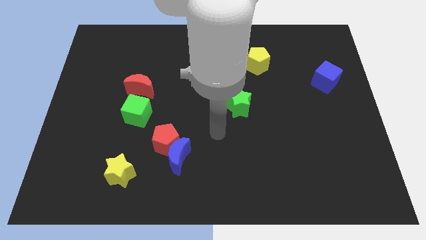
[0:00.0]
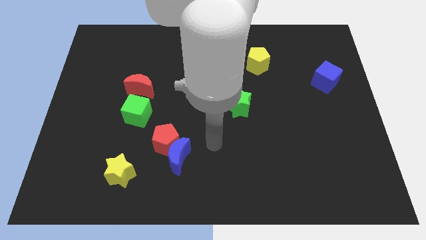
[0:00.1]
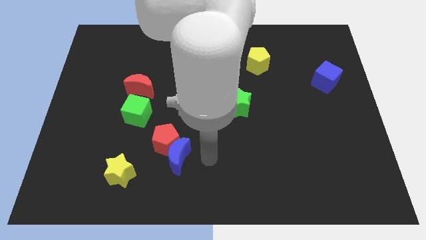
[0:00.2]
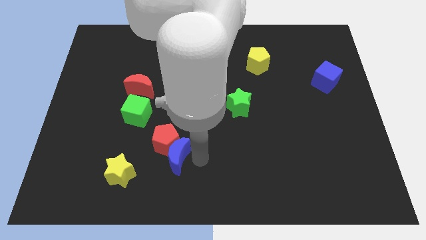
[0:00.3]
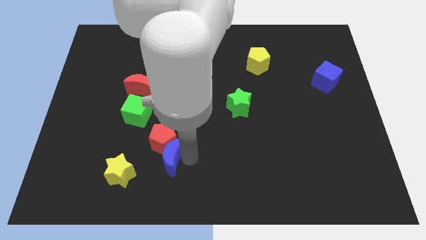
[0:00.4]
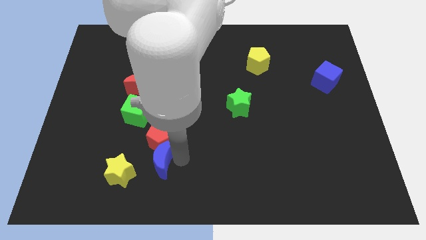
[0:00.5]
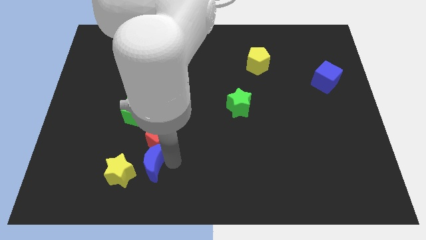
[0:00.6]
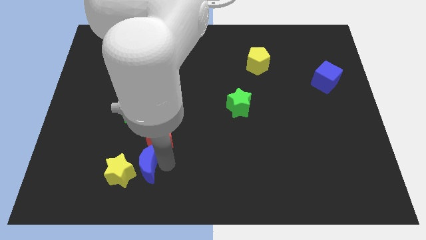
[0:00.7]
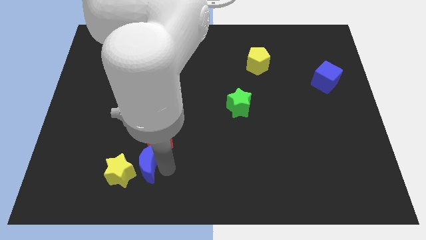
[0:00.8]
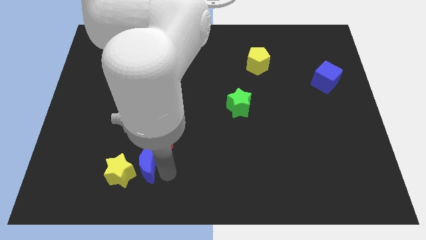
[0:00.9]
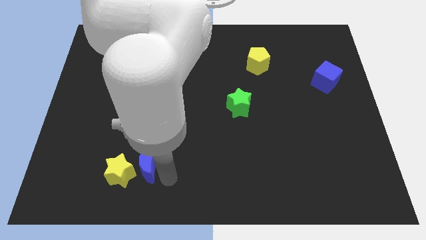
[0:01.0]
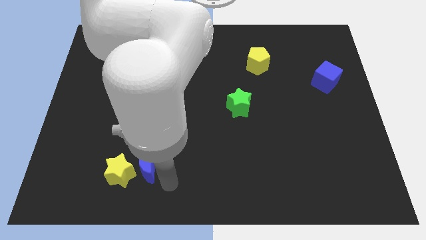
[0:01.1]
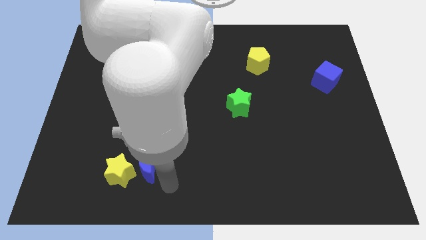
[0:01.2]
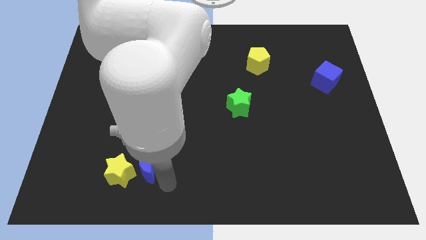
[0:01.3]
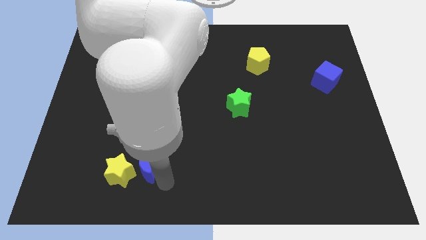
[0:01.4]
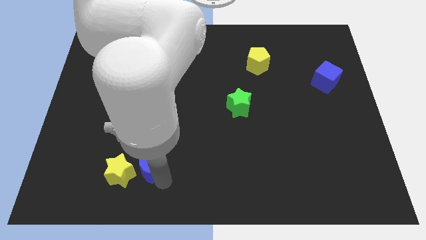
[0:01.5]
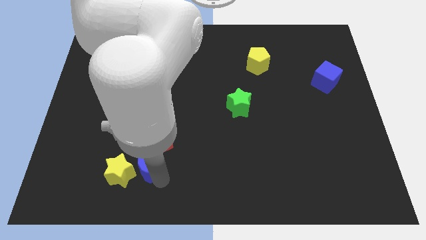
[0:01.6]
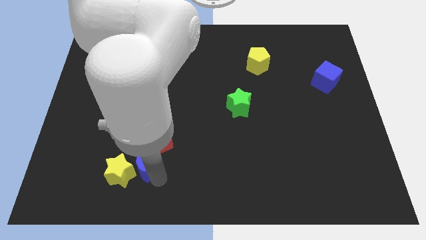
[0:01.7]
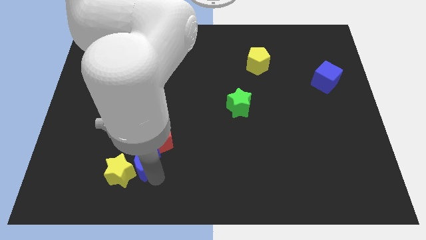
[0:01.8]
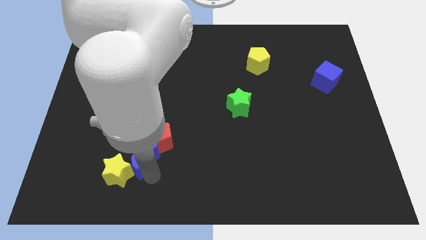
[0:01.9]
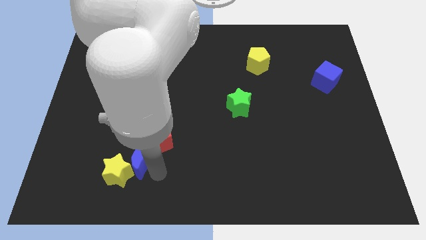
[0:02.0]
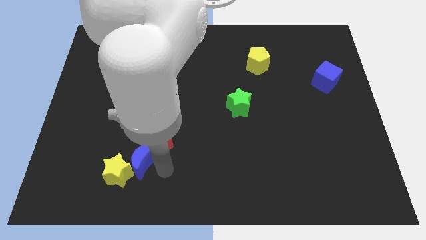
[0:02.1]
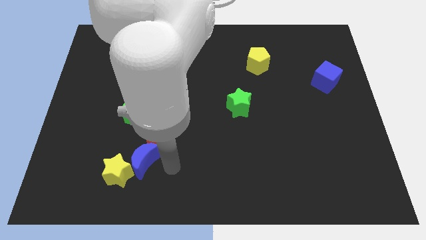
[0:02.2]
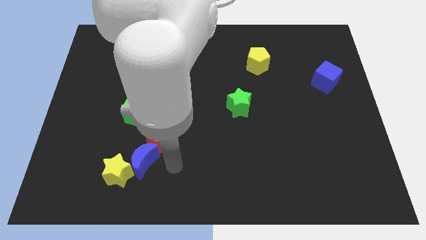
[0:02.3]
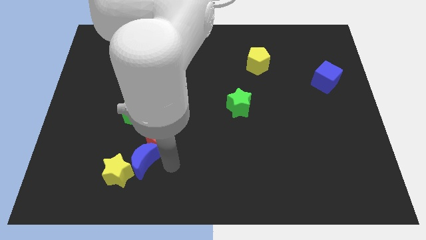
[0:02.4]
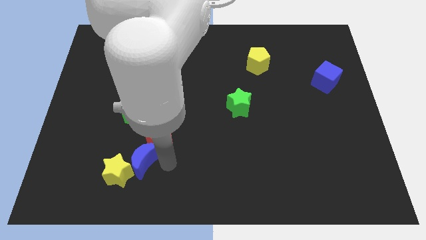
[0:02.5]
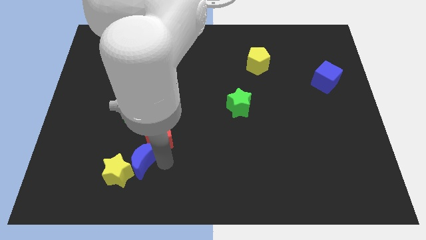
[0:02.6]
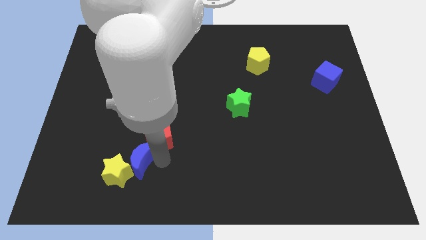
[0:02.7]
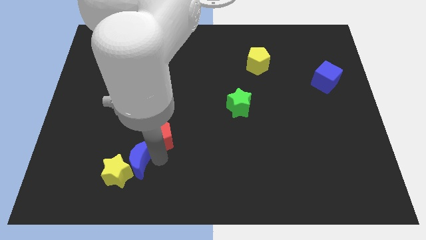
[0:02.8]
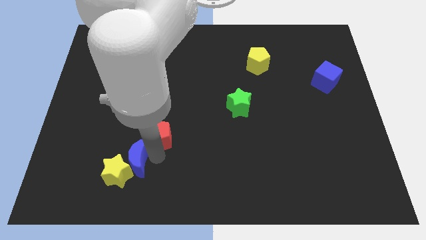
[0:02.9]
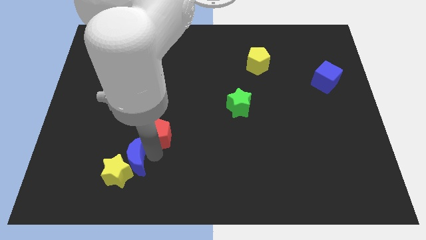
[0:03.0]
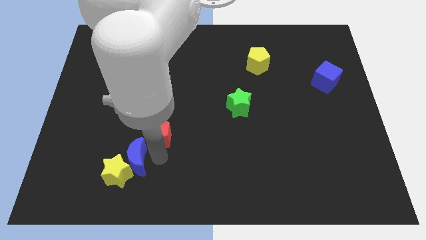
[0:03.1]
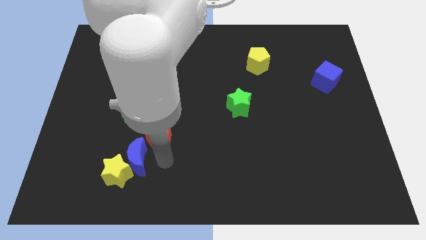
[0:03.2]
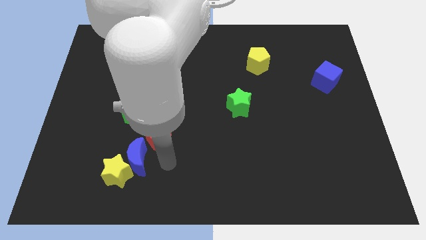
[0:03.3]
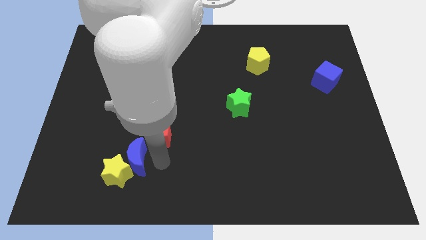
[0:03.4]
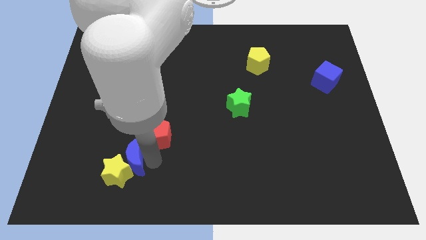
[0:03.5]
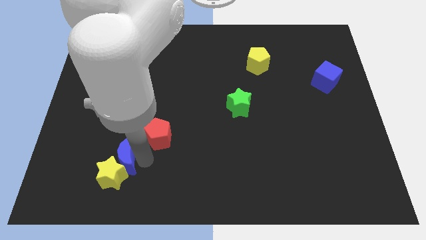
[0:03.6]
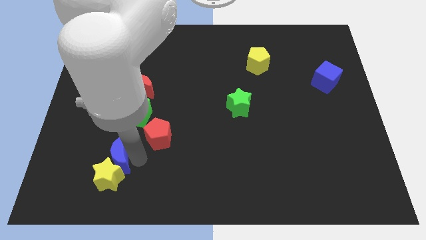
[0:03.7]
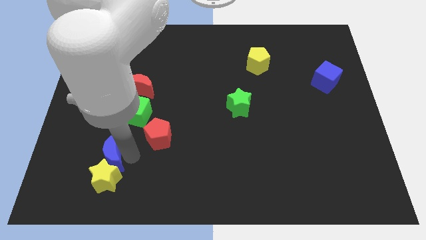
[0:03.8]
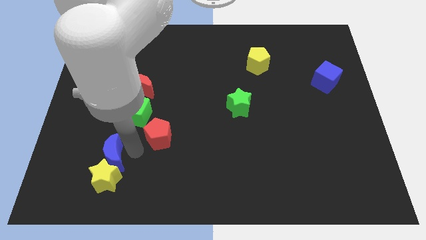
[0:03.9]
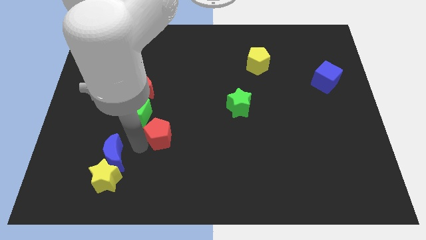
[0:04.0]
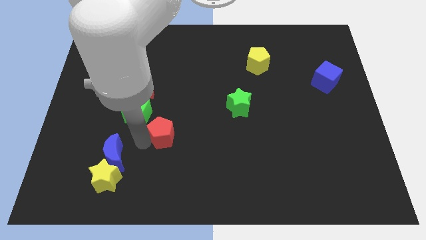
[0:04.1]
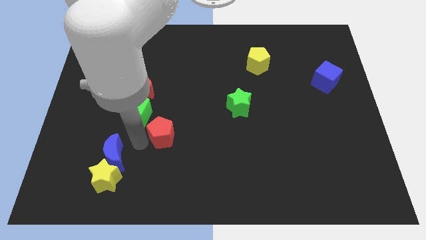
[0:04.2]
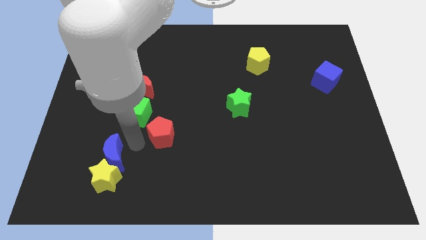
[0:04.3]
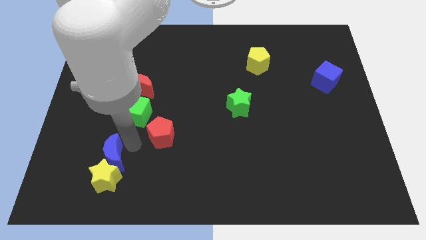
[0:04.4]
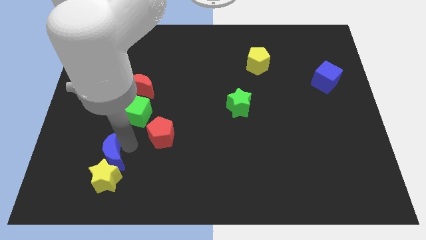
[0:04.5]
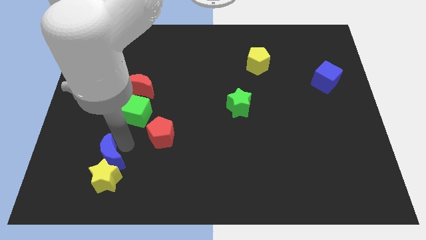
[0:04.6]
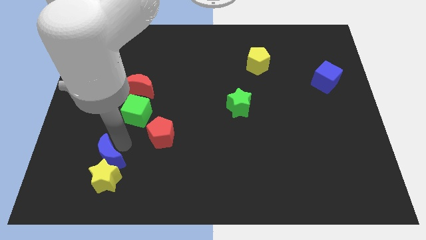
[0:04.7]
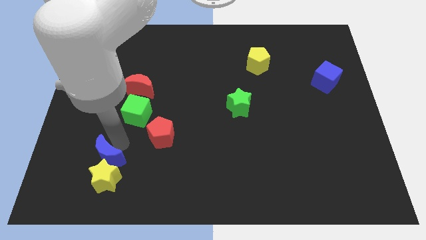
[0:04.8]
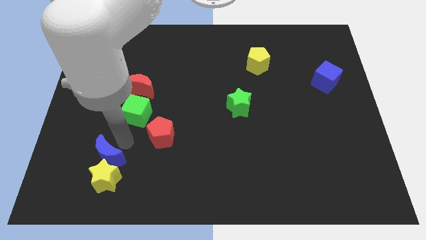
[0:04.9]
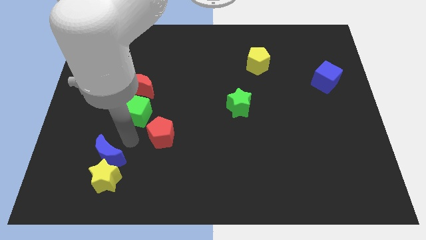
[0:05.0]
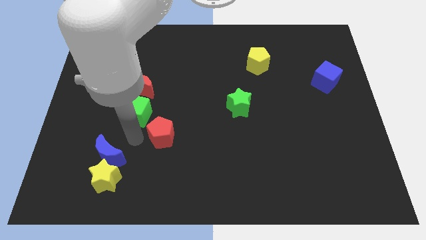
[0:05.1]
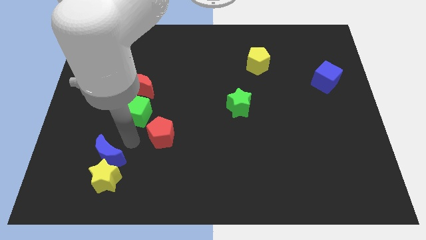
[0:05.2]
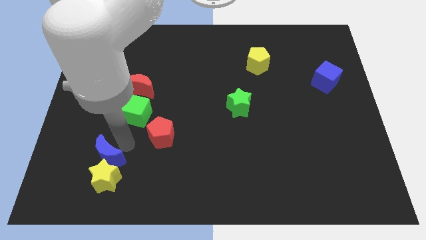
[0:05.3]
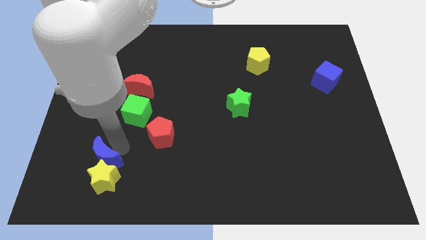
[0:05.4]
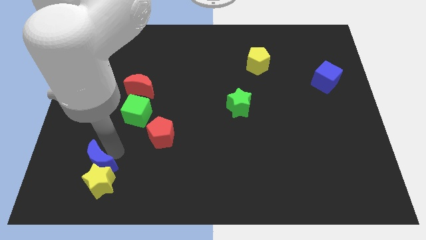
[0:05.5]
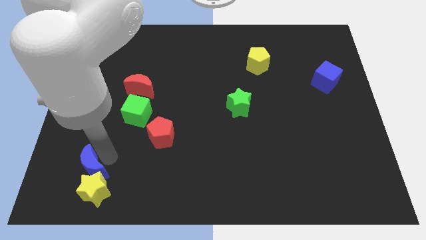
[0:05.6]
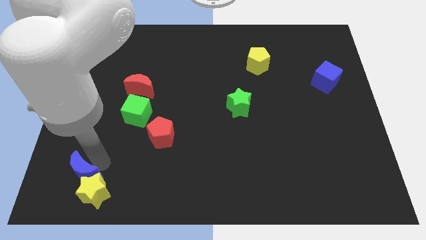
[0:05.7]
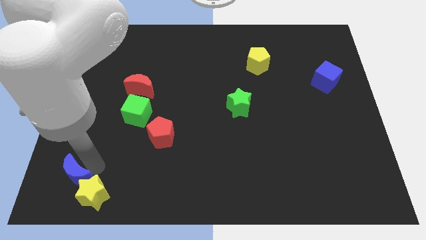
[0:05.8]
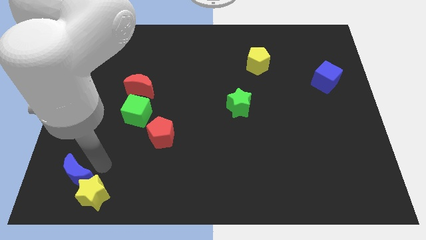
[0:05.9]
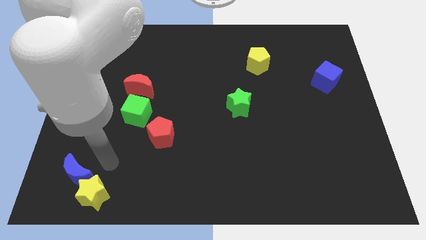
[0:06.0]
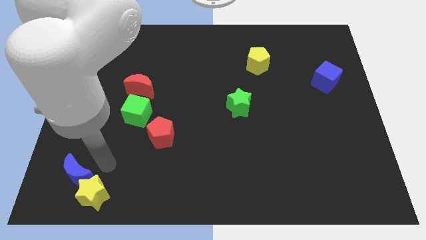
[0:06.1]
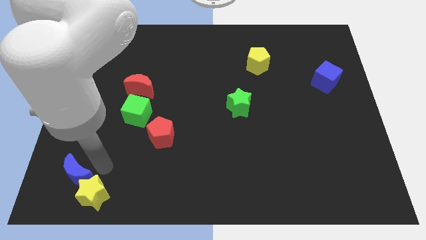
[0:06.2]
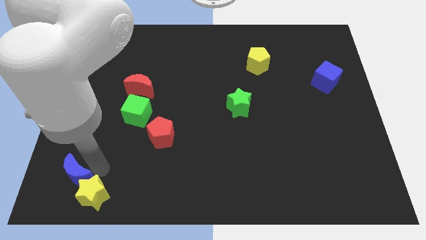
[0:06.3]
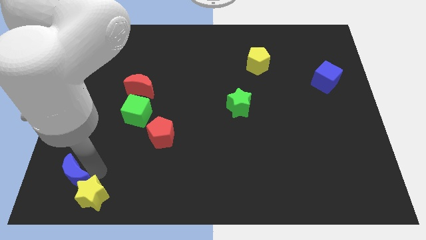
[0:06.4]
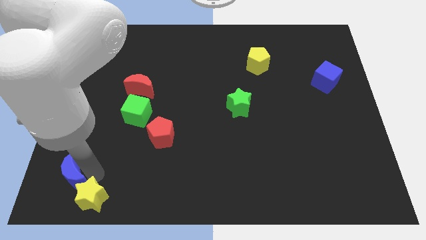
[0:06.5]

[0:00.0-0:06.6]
push the blue moon to the lower left corner

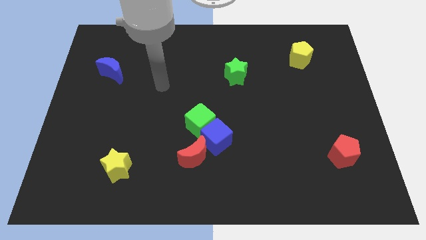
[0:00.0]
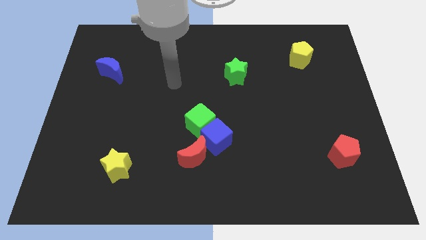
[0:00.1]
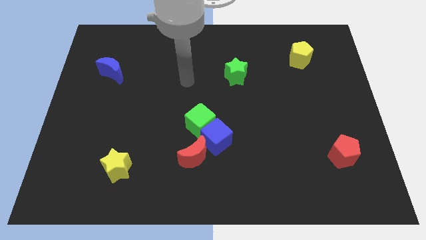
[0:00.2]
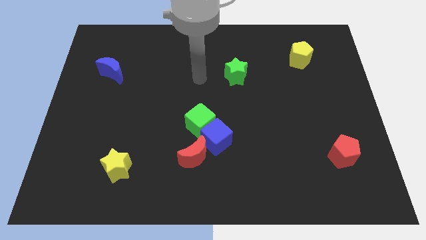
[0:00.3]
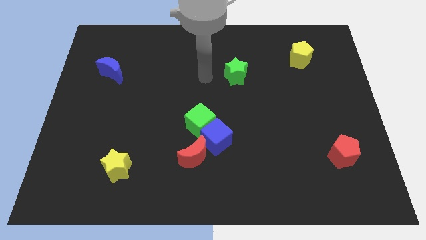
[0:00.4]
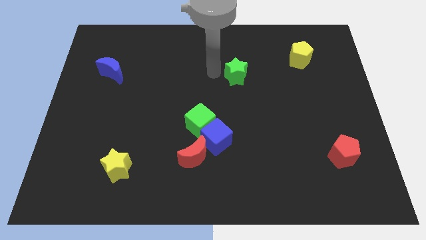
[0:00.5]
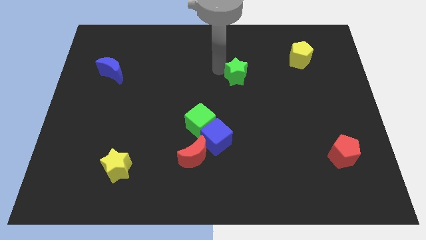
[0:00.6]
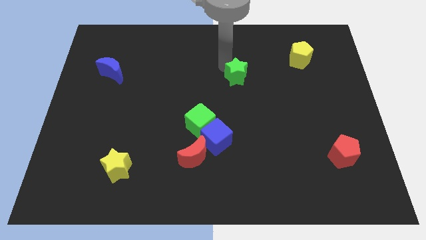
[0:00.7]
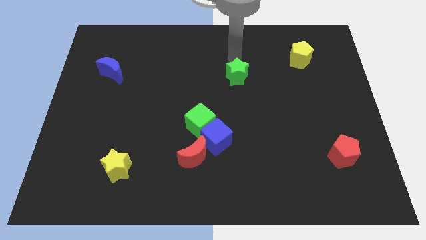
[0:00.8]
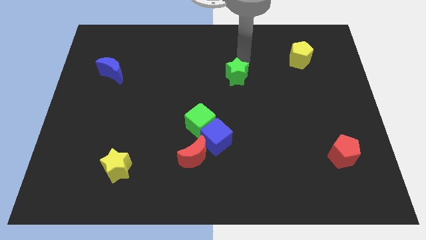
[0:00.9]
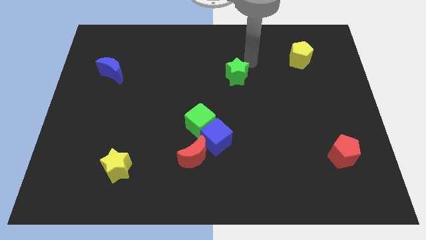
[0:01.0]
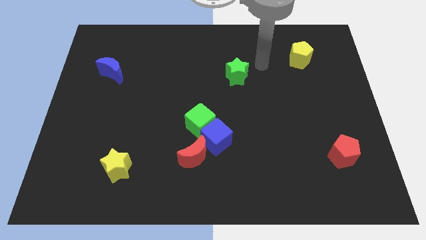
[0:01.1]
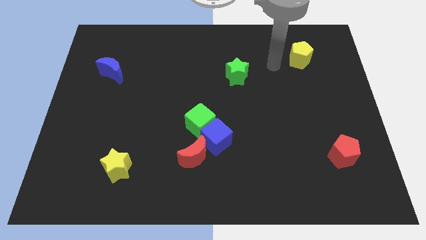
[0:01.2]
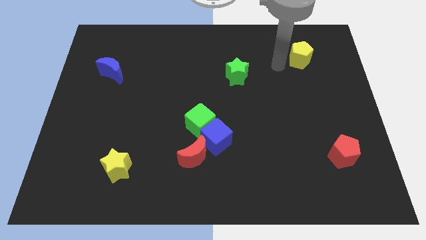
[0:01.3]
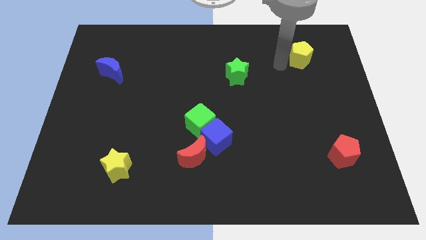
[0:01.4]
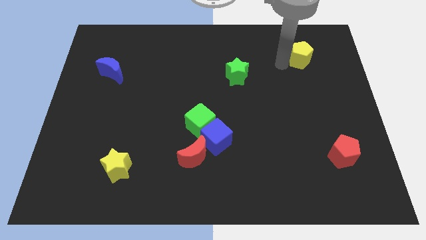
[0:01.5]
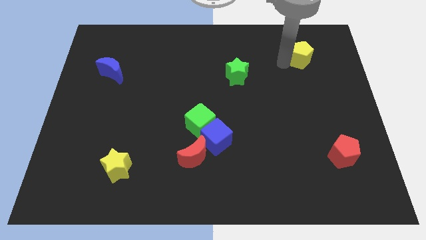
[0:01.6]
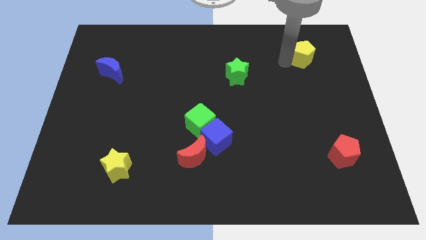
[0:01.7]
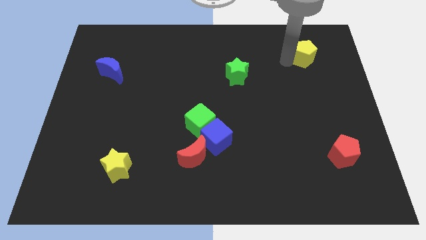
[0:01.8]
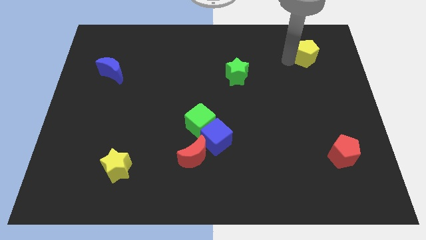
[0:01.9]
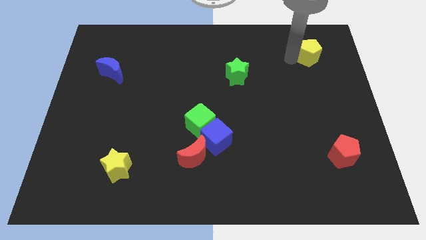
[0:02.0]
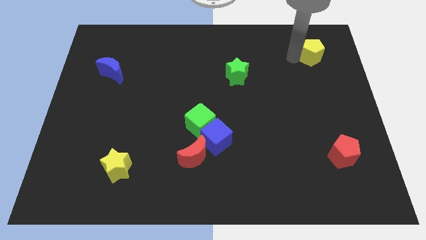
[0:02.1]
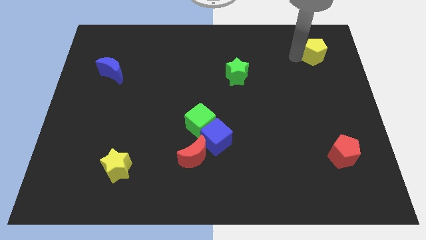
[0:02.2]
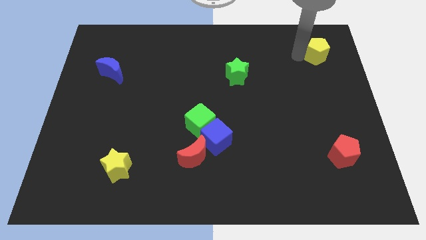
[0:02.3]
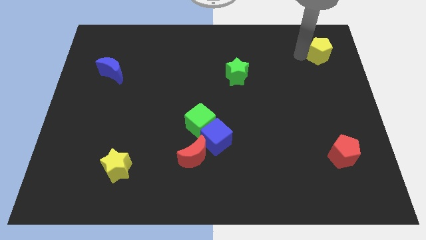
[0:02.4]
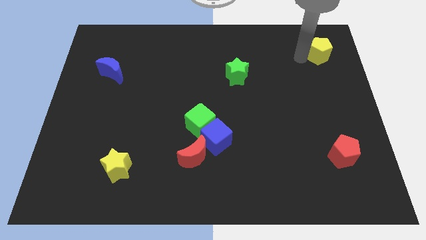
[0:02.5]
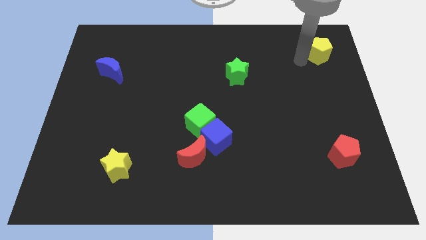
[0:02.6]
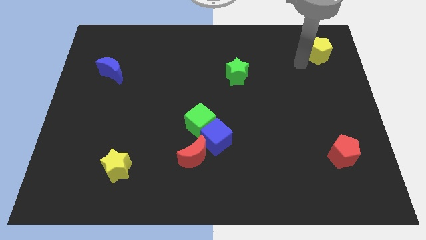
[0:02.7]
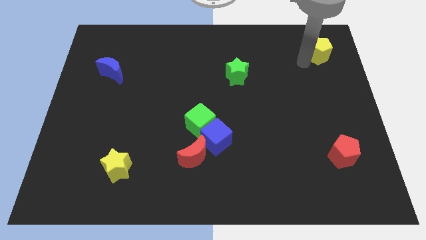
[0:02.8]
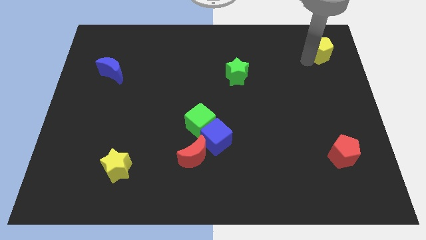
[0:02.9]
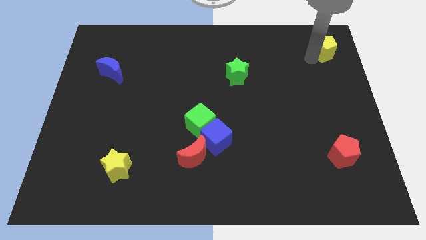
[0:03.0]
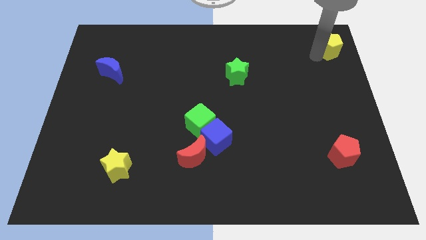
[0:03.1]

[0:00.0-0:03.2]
slide the yellow pentagon to the upper right corner
